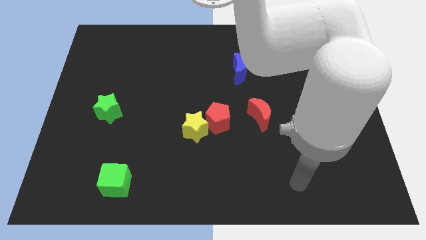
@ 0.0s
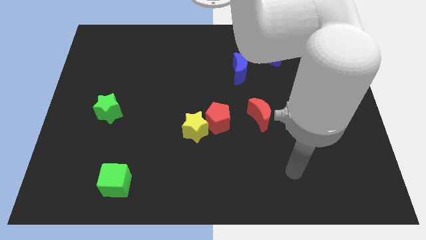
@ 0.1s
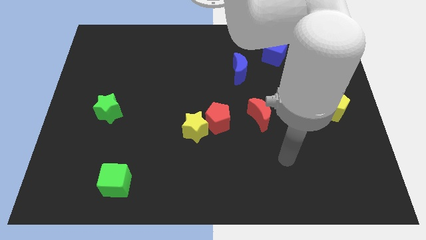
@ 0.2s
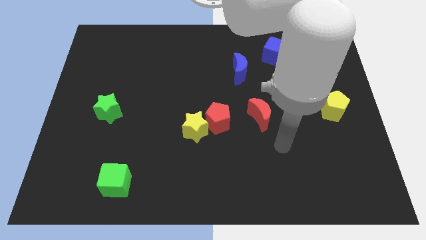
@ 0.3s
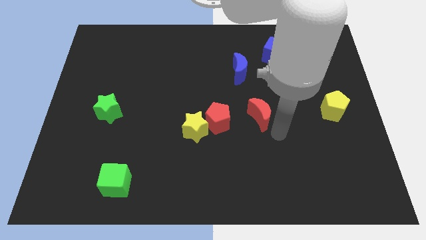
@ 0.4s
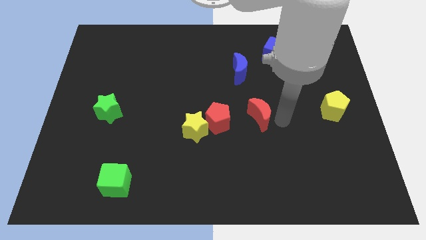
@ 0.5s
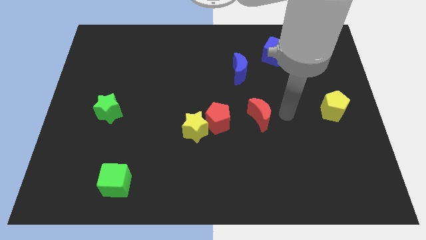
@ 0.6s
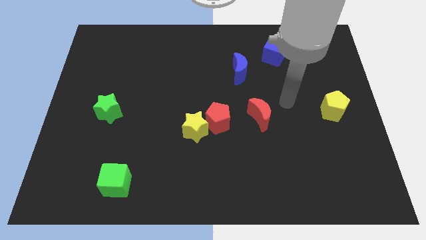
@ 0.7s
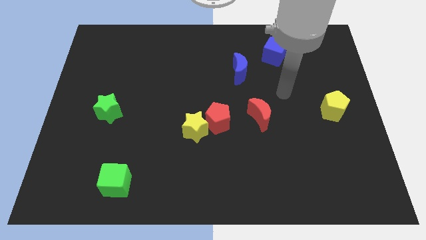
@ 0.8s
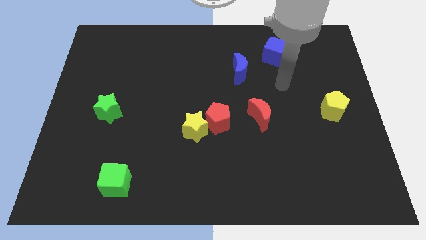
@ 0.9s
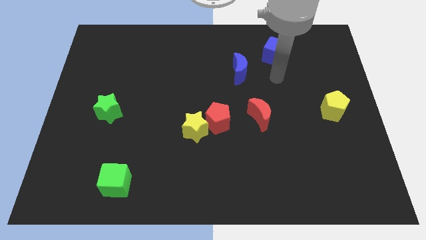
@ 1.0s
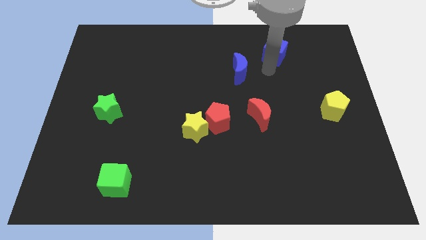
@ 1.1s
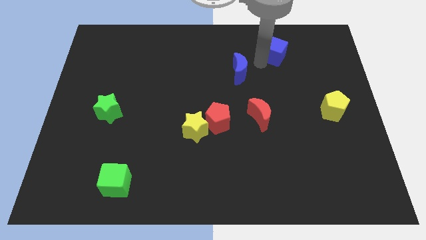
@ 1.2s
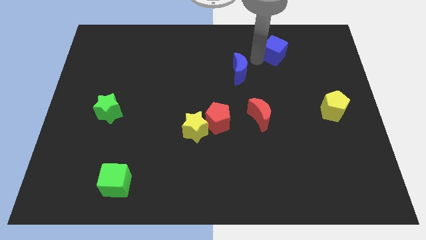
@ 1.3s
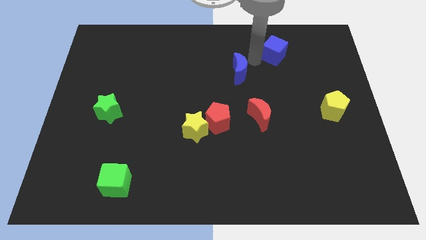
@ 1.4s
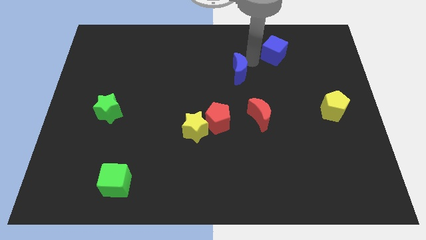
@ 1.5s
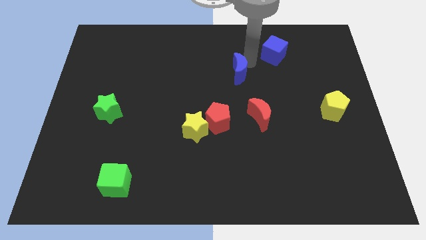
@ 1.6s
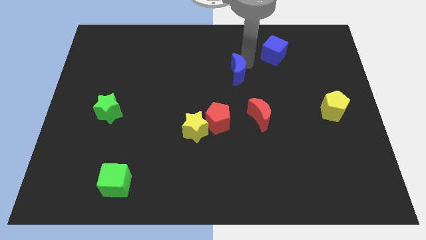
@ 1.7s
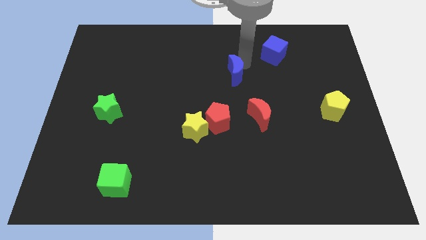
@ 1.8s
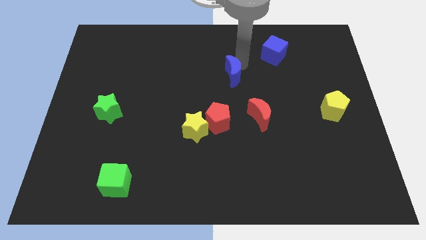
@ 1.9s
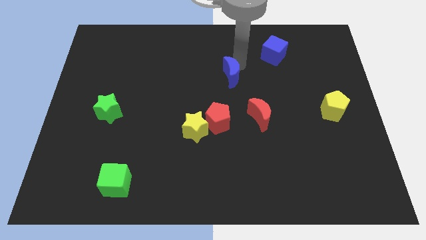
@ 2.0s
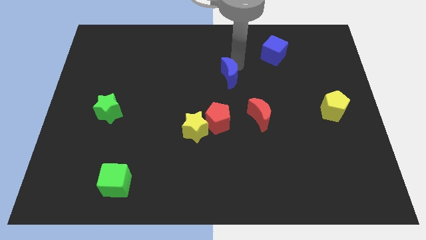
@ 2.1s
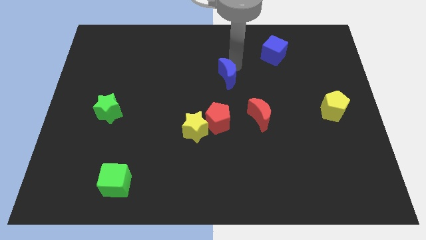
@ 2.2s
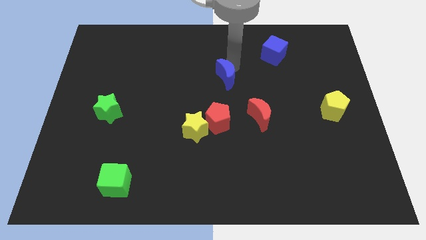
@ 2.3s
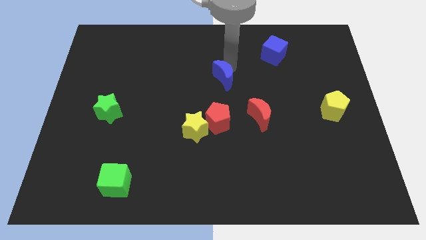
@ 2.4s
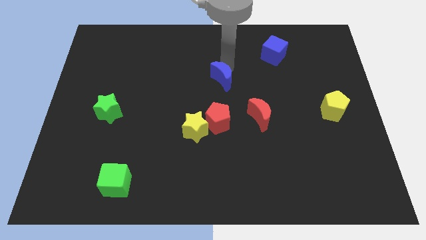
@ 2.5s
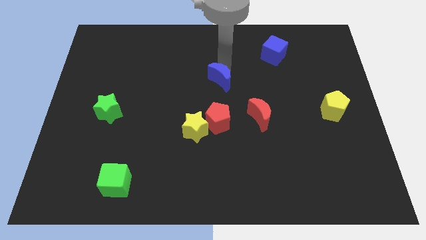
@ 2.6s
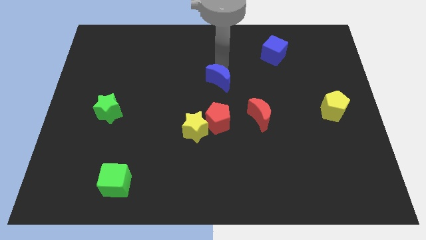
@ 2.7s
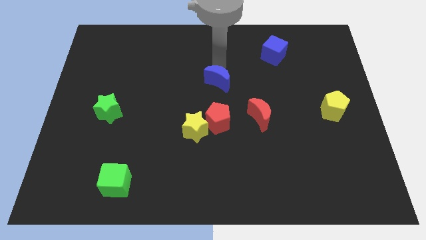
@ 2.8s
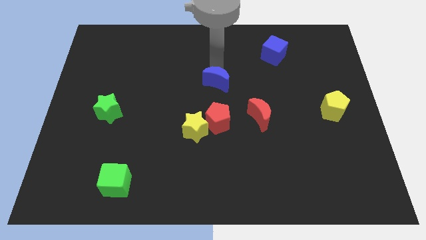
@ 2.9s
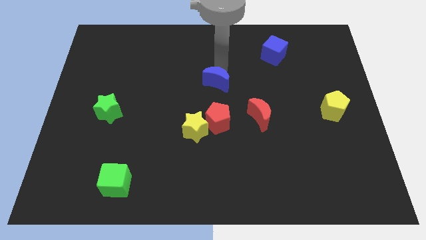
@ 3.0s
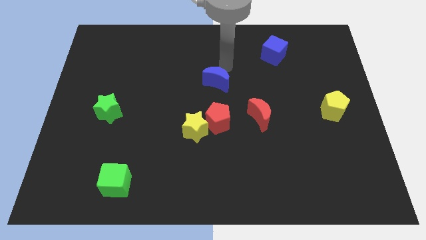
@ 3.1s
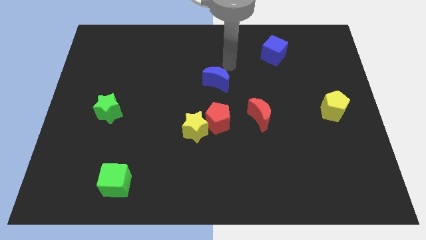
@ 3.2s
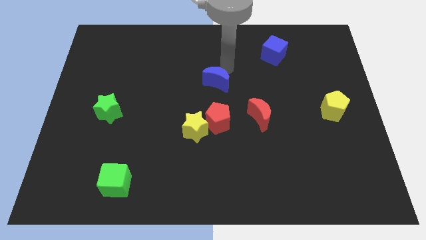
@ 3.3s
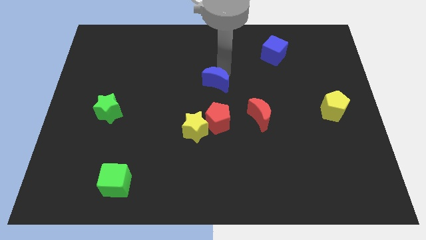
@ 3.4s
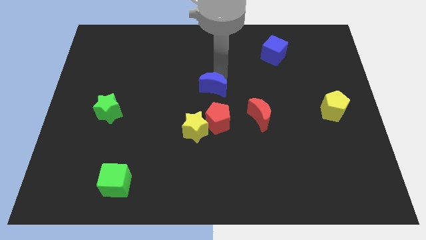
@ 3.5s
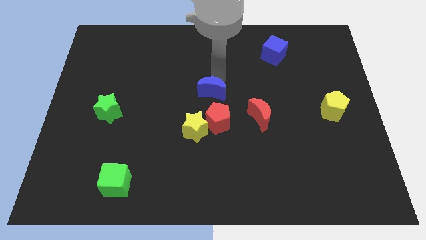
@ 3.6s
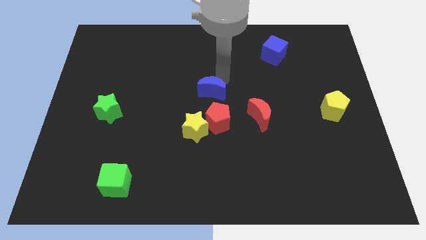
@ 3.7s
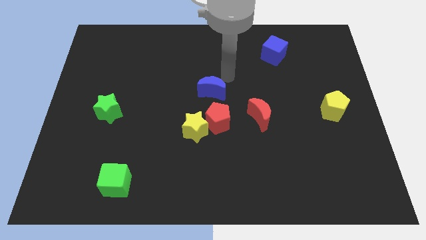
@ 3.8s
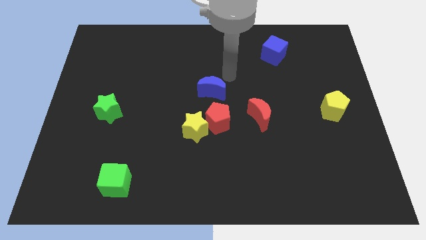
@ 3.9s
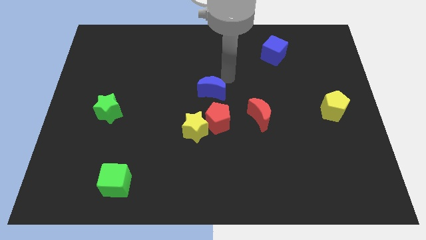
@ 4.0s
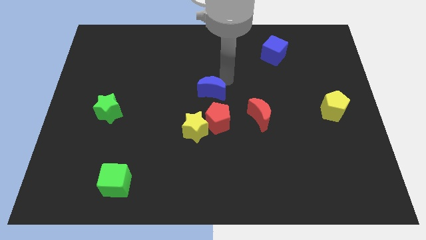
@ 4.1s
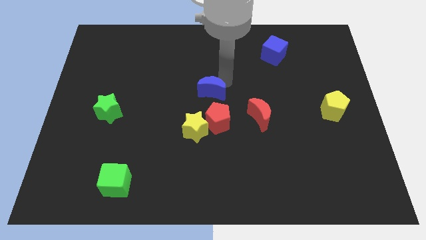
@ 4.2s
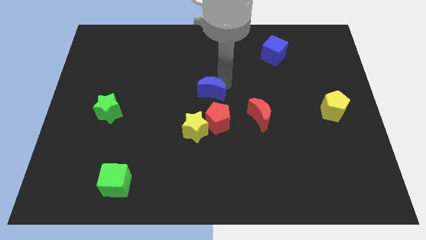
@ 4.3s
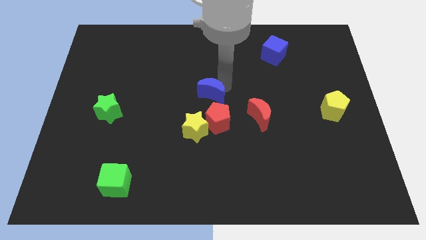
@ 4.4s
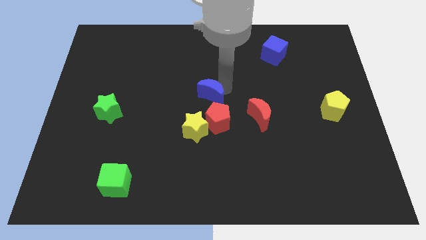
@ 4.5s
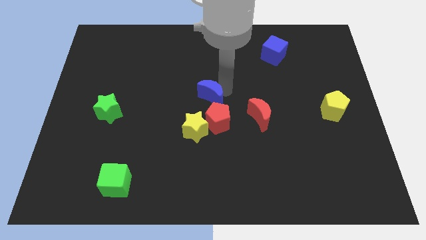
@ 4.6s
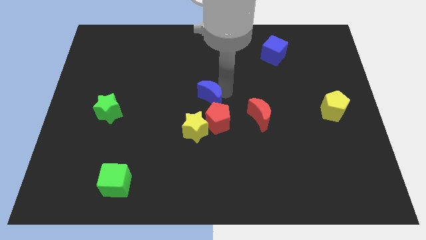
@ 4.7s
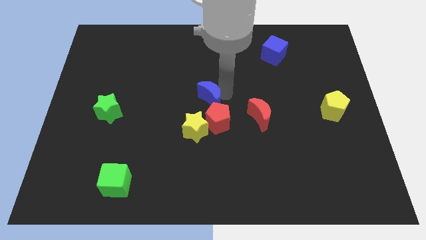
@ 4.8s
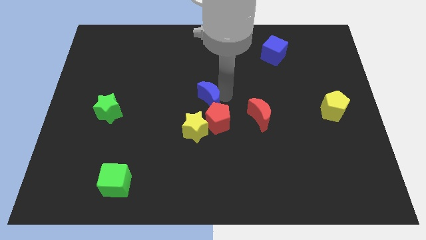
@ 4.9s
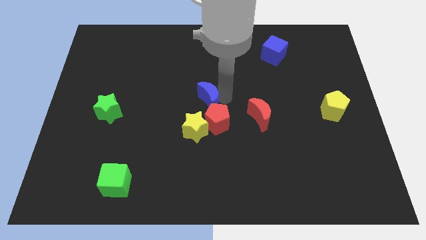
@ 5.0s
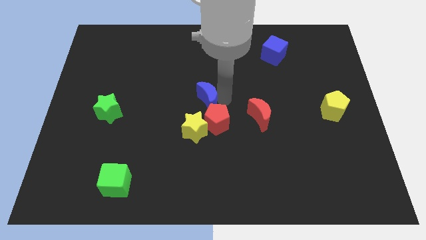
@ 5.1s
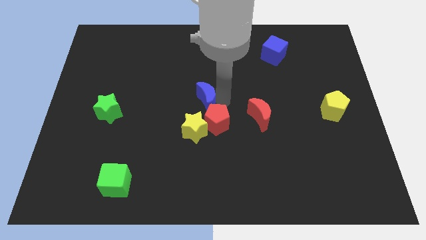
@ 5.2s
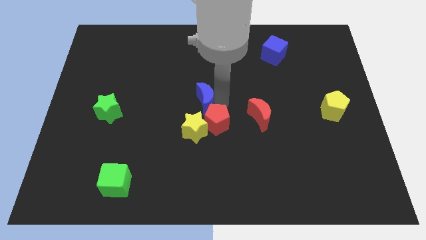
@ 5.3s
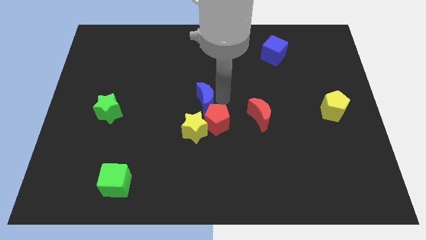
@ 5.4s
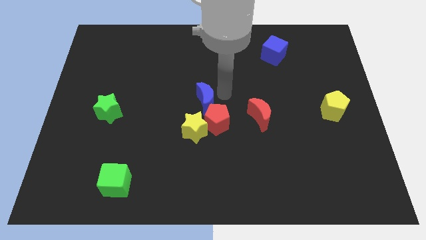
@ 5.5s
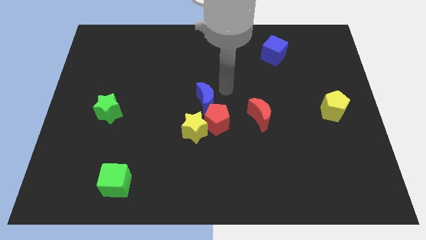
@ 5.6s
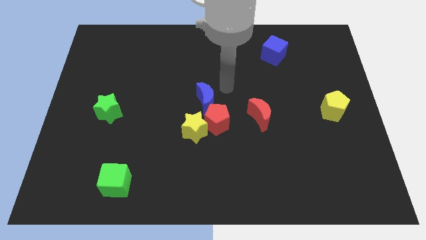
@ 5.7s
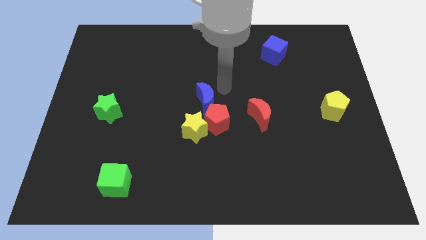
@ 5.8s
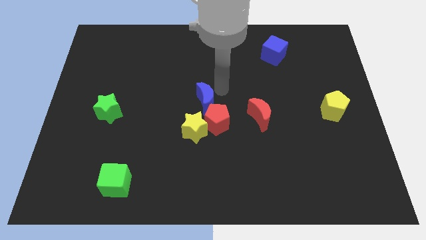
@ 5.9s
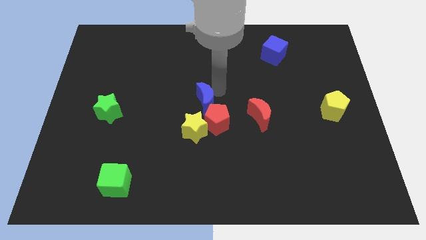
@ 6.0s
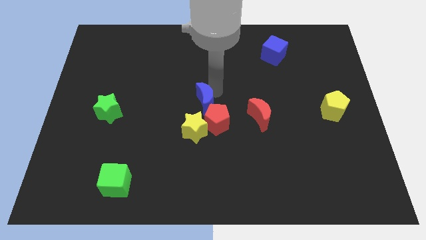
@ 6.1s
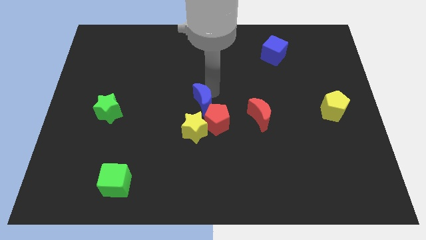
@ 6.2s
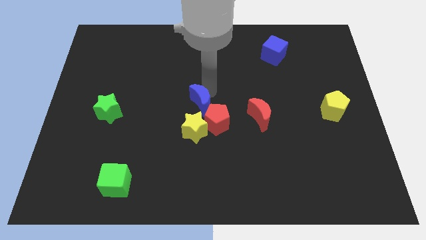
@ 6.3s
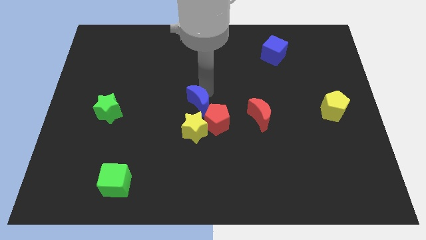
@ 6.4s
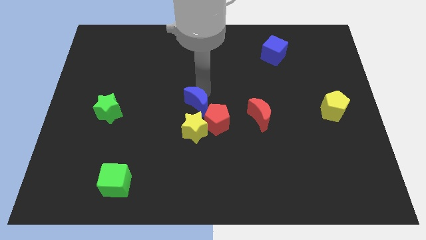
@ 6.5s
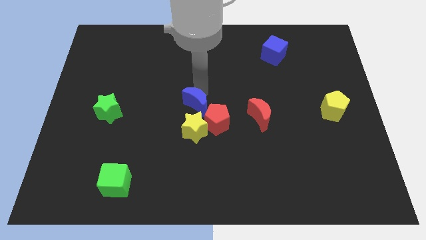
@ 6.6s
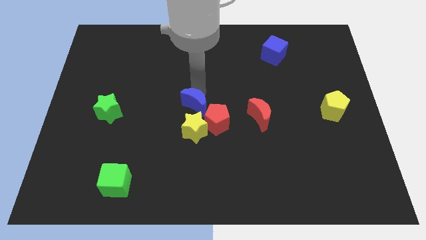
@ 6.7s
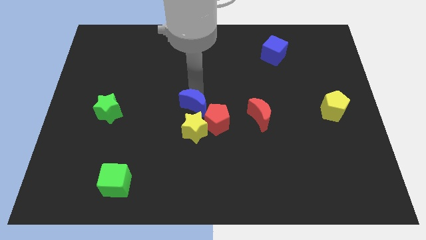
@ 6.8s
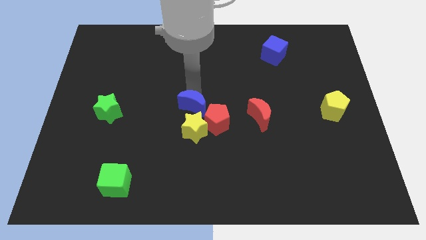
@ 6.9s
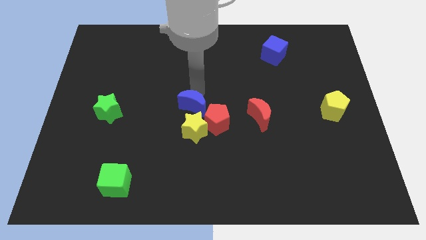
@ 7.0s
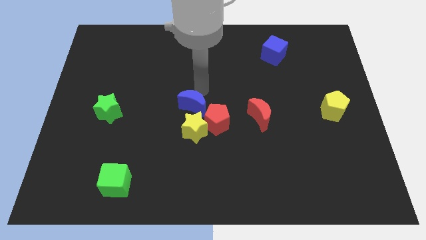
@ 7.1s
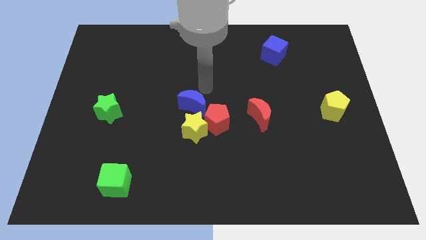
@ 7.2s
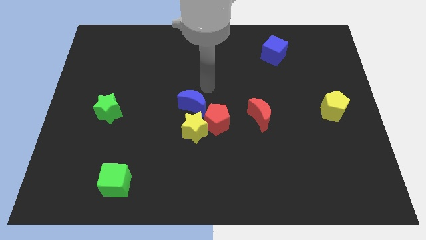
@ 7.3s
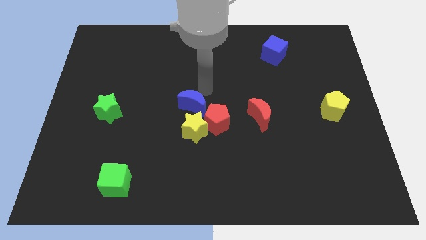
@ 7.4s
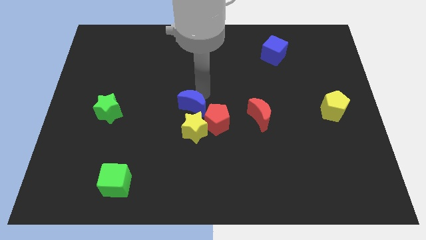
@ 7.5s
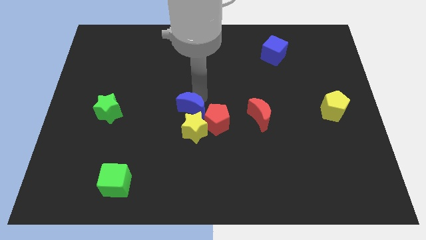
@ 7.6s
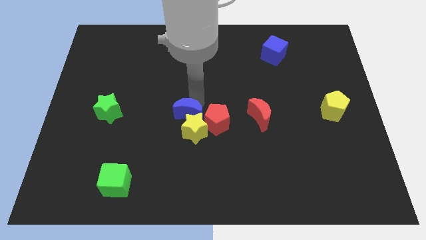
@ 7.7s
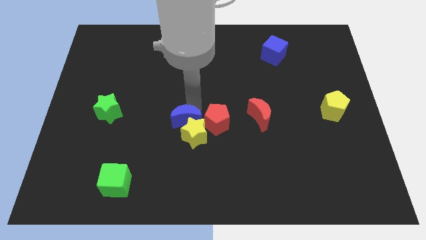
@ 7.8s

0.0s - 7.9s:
slide the blue moon diagonally down and left
